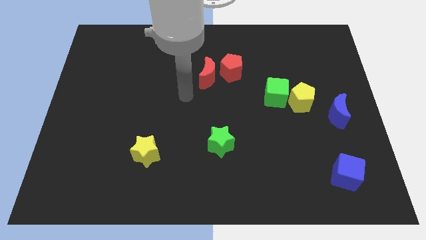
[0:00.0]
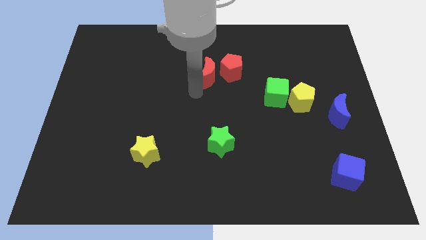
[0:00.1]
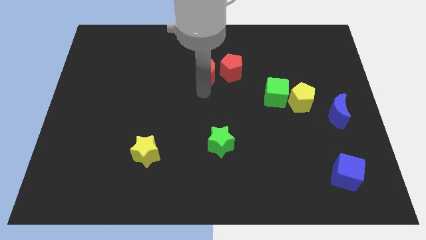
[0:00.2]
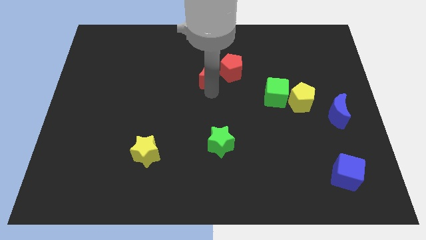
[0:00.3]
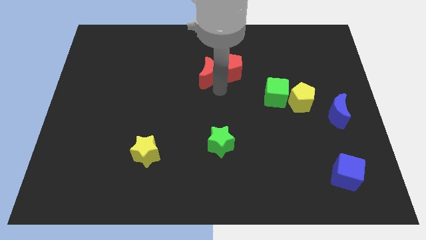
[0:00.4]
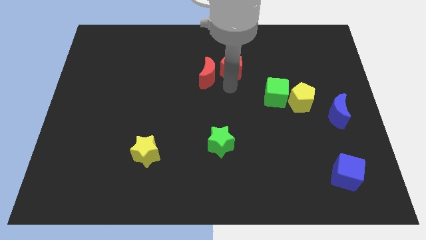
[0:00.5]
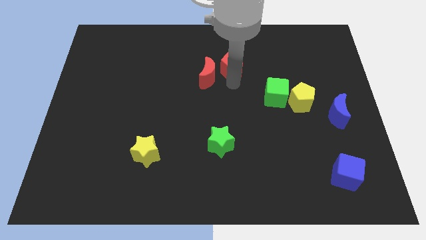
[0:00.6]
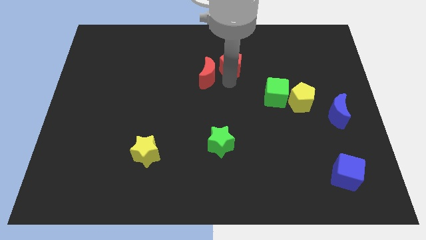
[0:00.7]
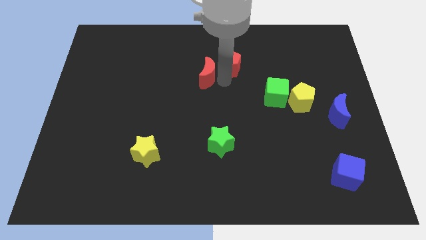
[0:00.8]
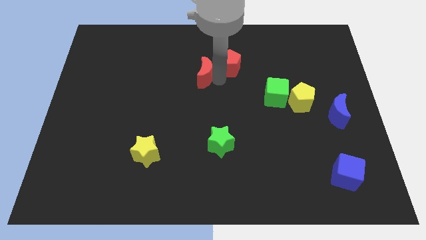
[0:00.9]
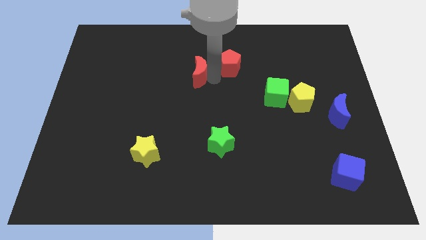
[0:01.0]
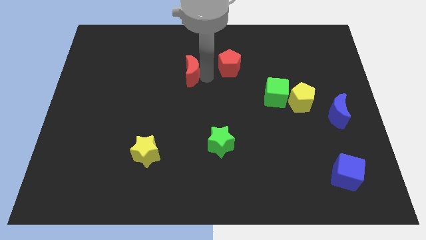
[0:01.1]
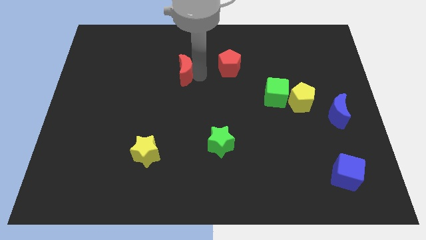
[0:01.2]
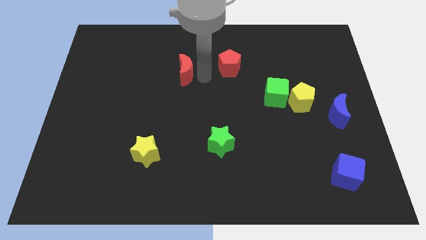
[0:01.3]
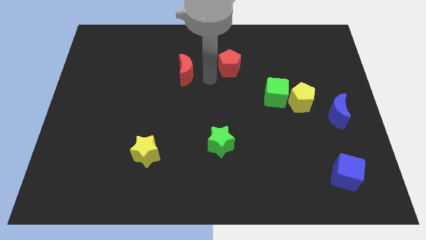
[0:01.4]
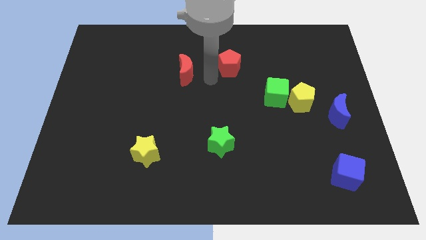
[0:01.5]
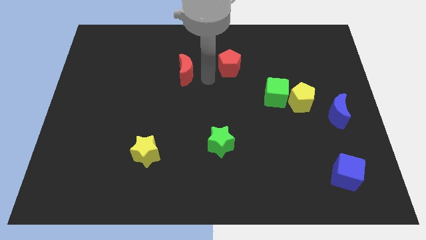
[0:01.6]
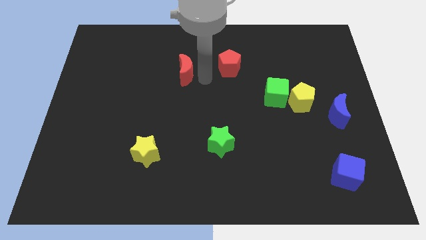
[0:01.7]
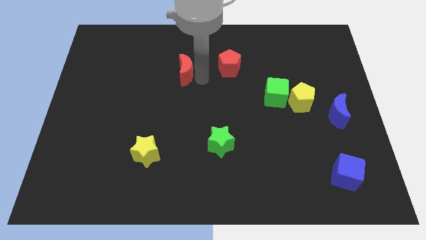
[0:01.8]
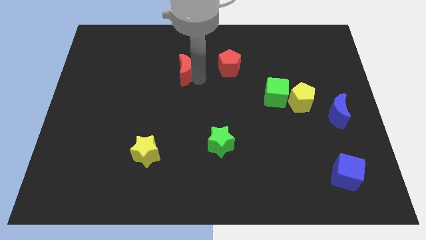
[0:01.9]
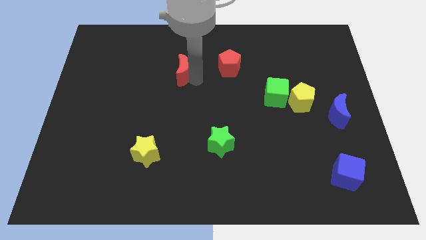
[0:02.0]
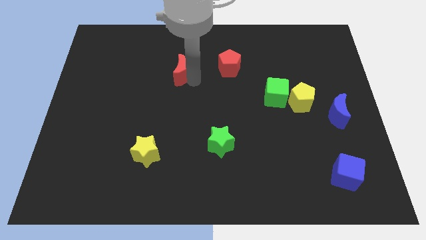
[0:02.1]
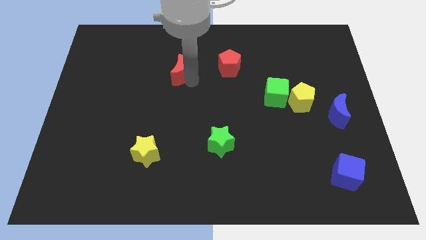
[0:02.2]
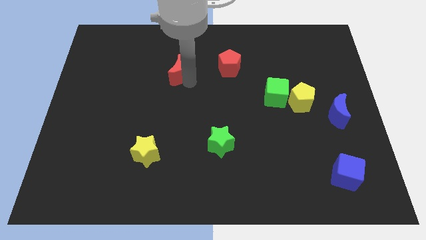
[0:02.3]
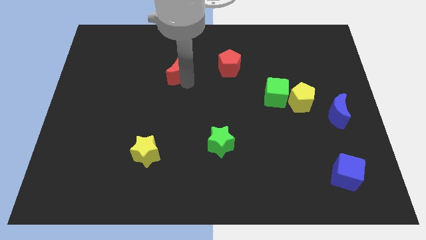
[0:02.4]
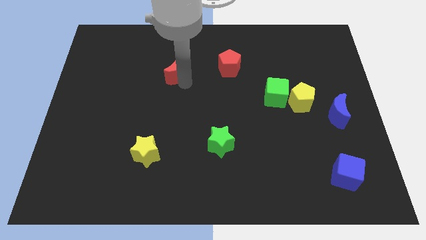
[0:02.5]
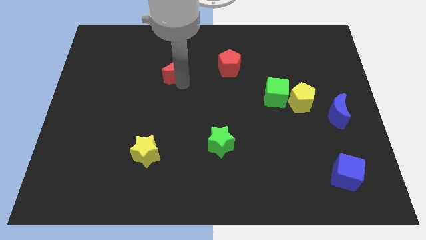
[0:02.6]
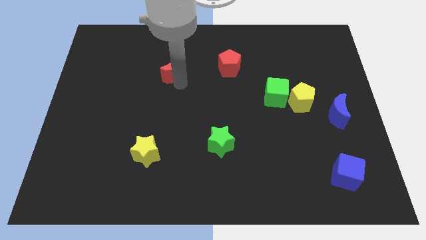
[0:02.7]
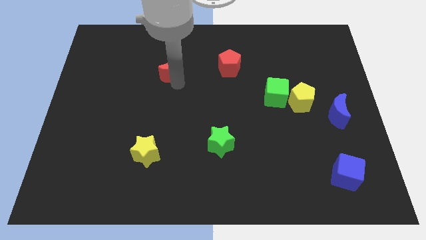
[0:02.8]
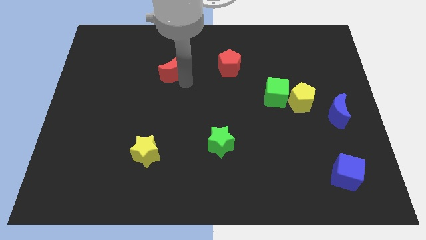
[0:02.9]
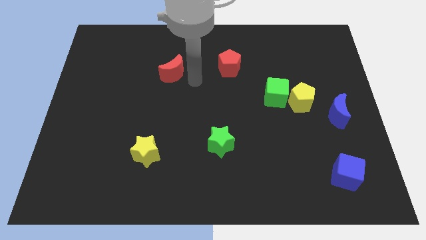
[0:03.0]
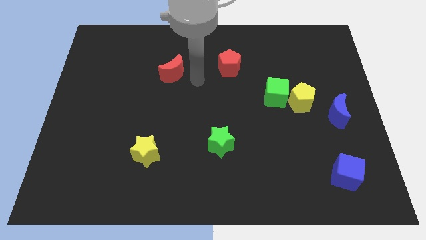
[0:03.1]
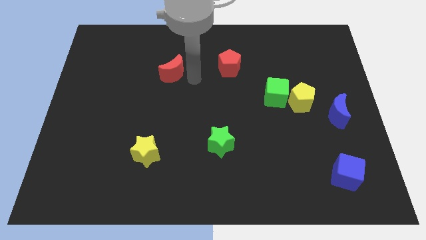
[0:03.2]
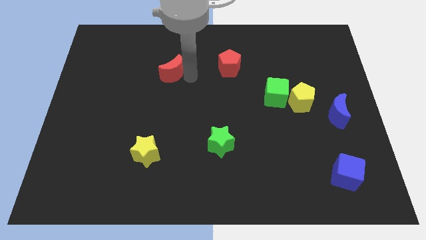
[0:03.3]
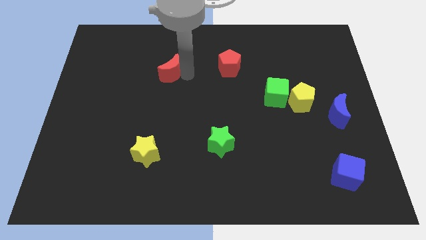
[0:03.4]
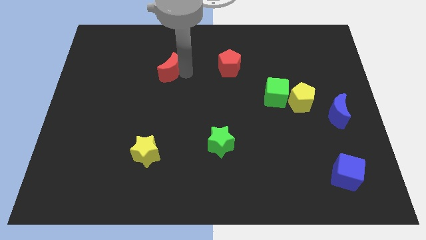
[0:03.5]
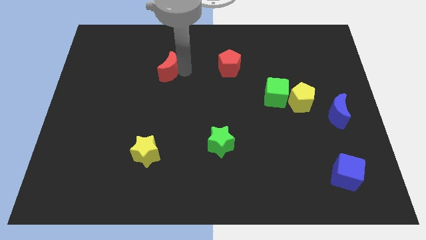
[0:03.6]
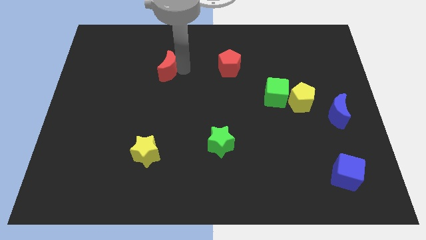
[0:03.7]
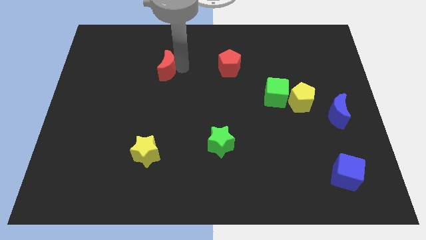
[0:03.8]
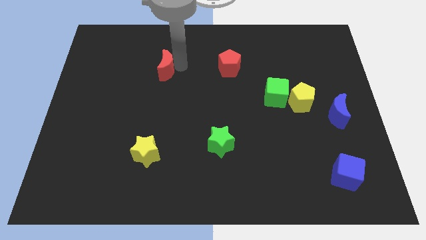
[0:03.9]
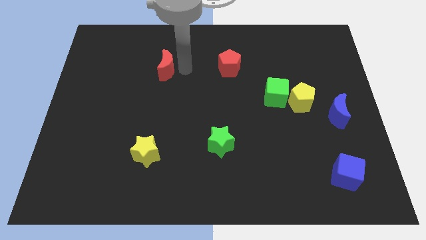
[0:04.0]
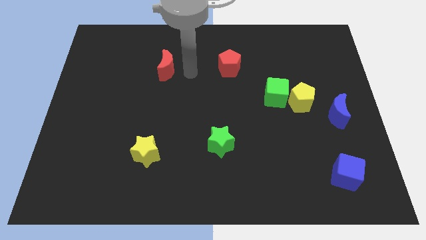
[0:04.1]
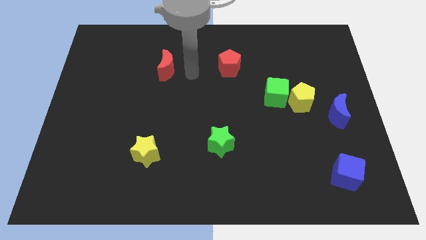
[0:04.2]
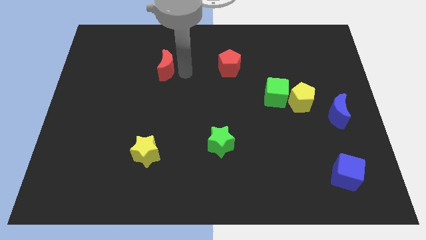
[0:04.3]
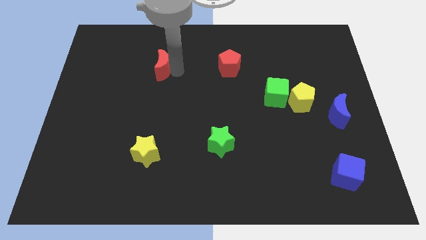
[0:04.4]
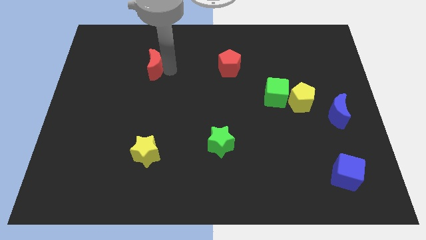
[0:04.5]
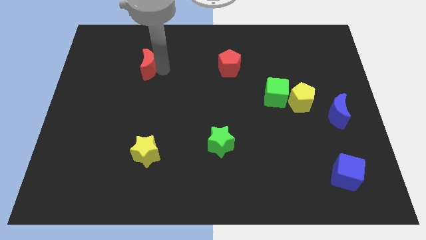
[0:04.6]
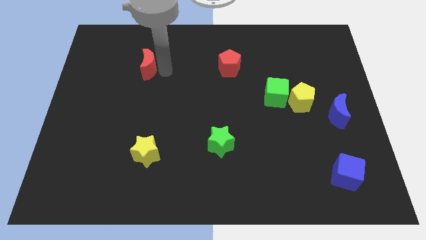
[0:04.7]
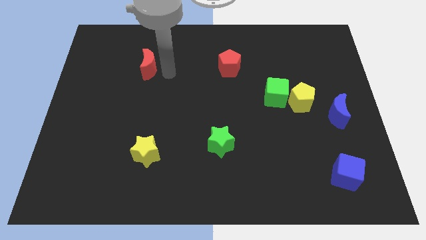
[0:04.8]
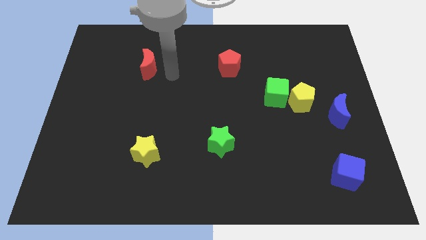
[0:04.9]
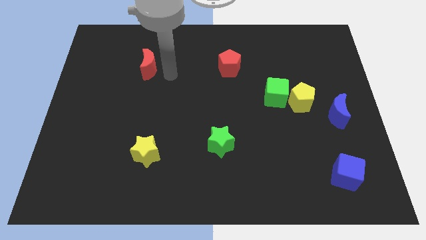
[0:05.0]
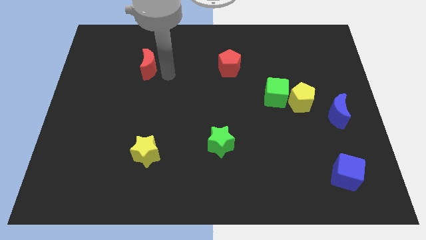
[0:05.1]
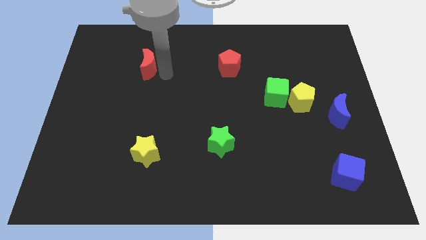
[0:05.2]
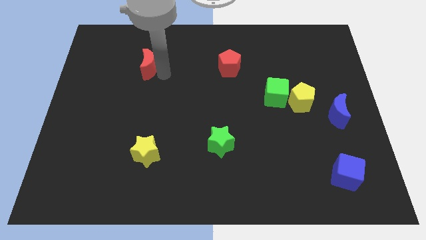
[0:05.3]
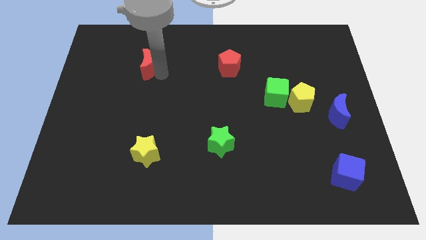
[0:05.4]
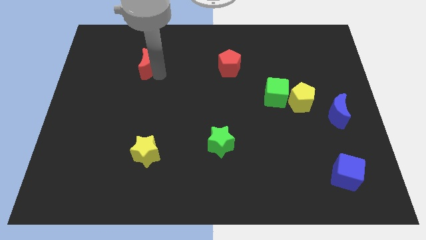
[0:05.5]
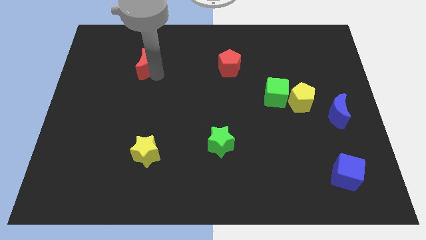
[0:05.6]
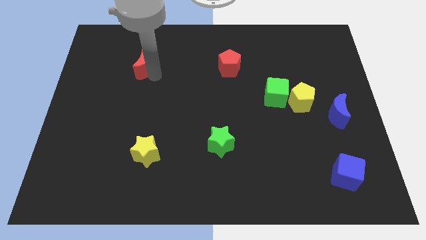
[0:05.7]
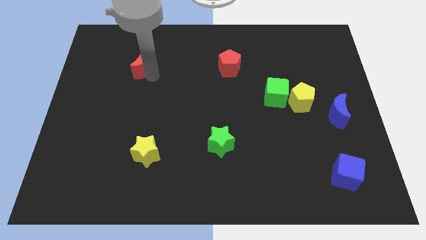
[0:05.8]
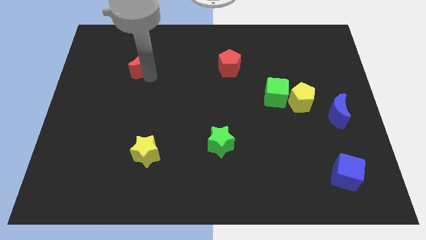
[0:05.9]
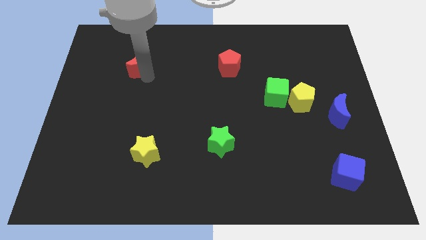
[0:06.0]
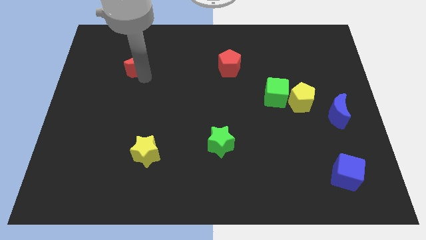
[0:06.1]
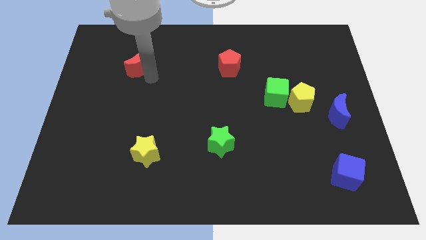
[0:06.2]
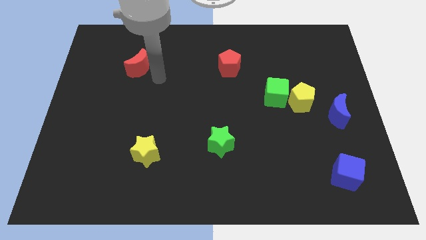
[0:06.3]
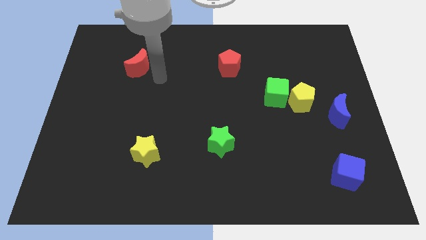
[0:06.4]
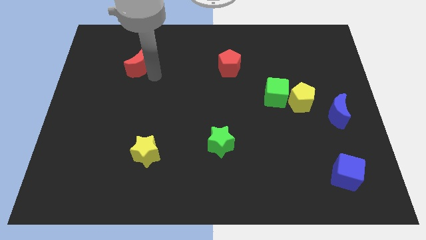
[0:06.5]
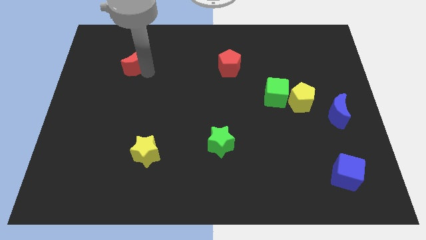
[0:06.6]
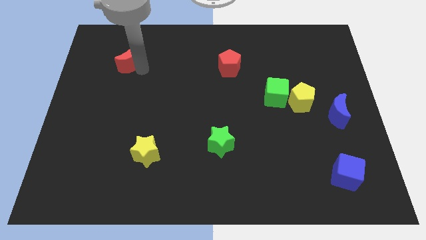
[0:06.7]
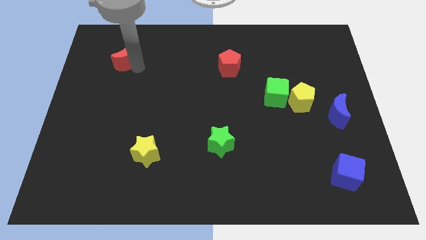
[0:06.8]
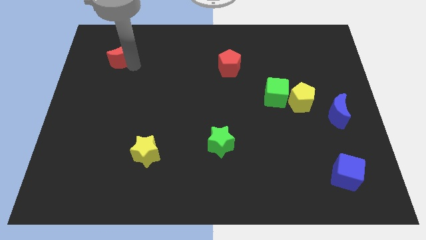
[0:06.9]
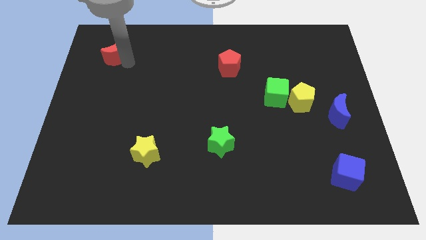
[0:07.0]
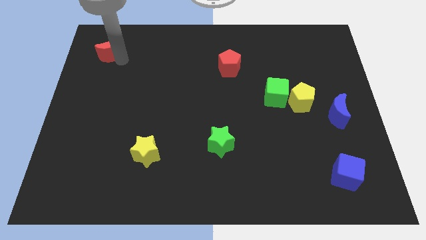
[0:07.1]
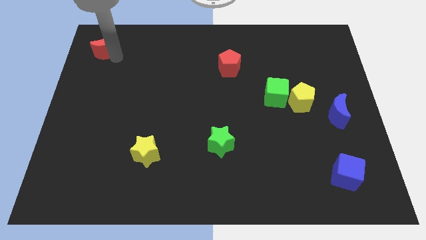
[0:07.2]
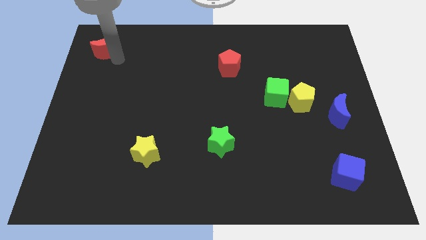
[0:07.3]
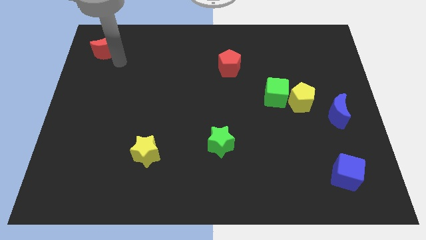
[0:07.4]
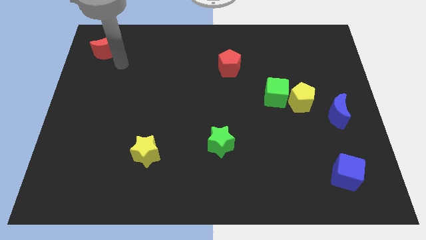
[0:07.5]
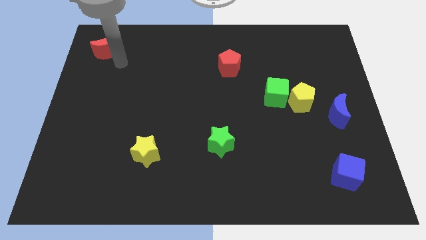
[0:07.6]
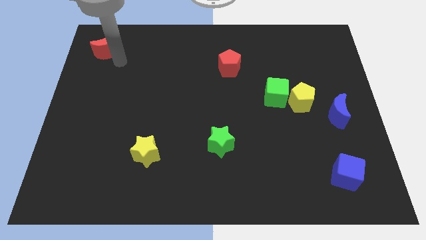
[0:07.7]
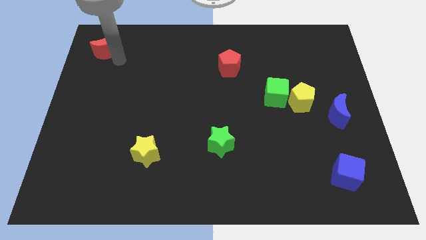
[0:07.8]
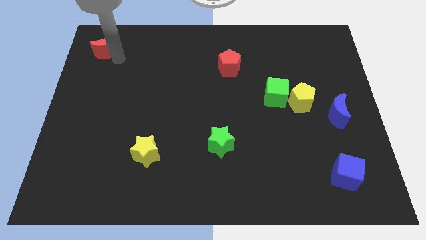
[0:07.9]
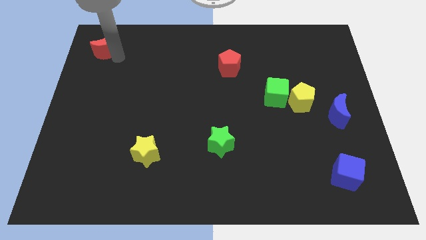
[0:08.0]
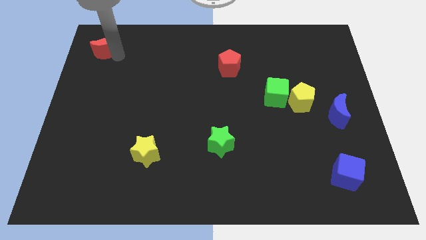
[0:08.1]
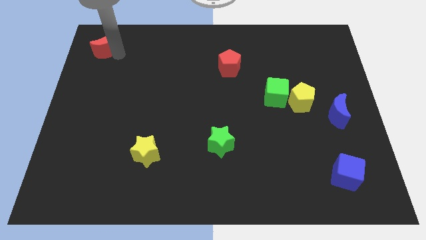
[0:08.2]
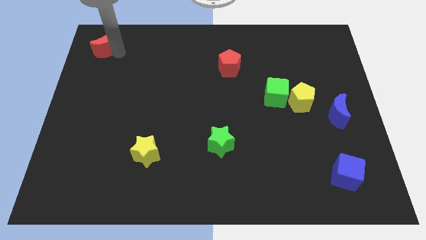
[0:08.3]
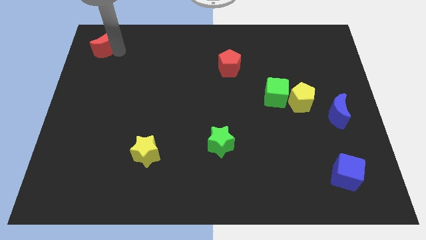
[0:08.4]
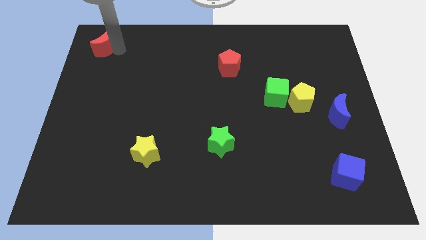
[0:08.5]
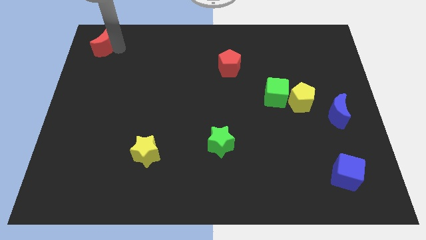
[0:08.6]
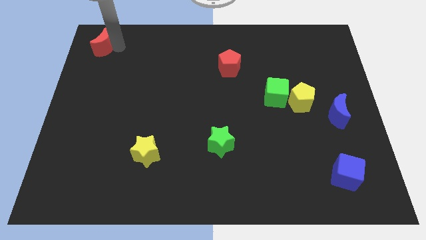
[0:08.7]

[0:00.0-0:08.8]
put the red moon to the upper left corner
